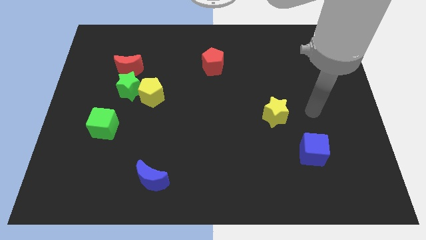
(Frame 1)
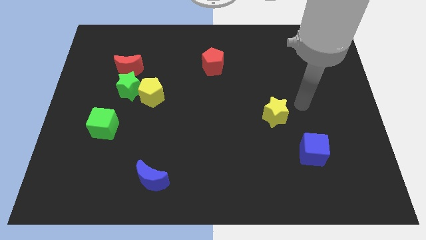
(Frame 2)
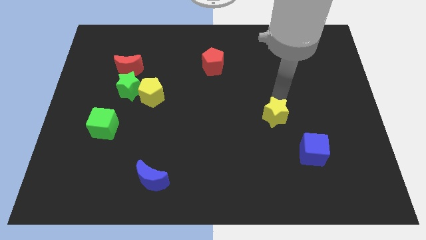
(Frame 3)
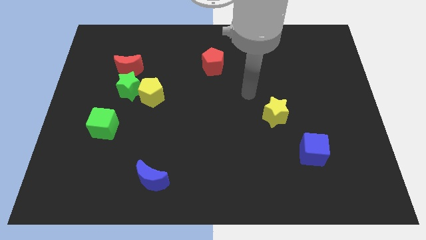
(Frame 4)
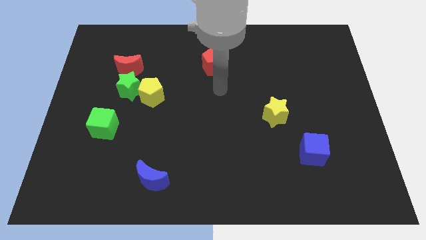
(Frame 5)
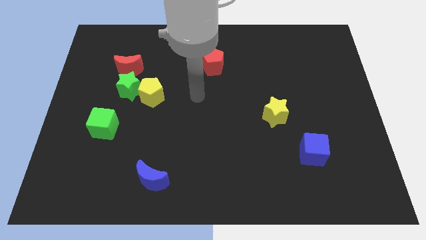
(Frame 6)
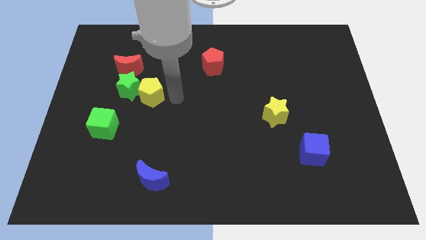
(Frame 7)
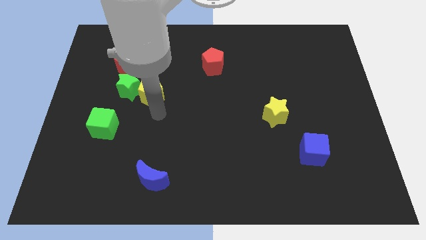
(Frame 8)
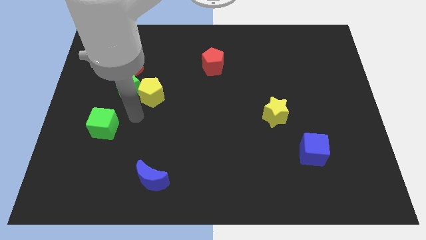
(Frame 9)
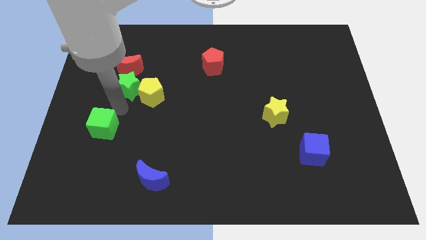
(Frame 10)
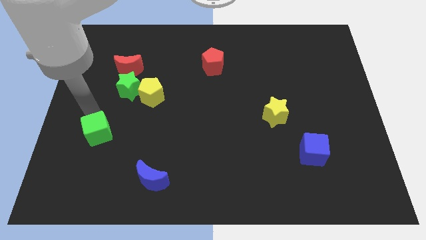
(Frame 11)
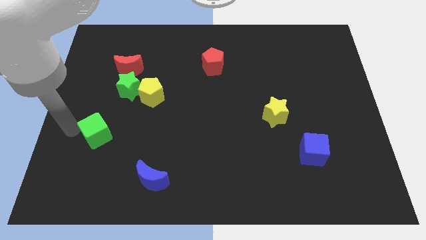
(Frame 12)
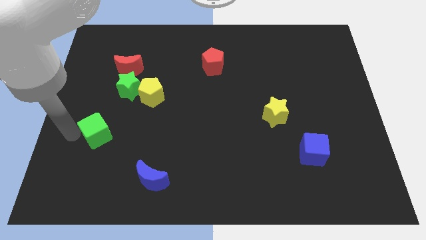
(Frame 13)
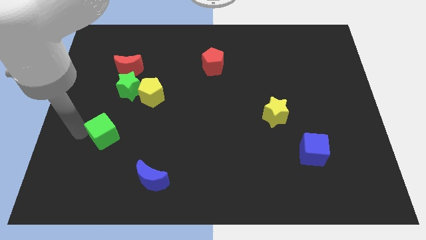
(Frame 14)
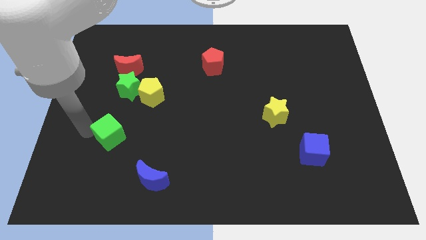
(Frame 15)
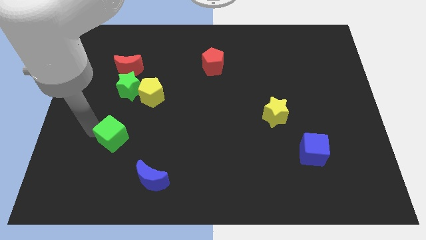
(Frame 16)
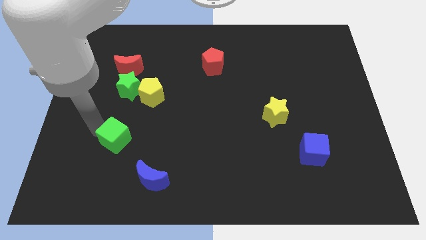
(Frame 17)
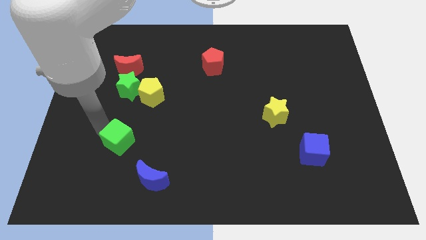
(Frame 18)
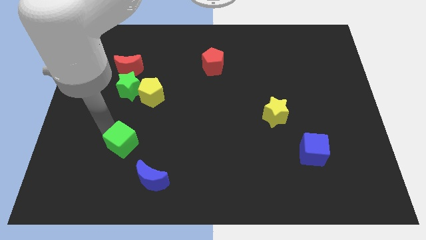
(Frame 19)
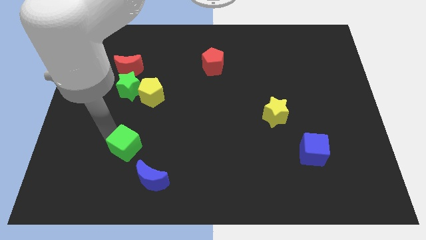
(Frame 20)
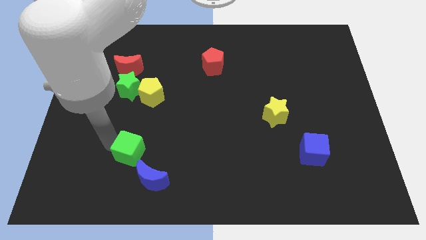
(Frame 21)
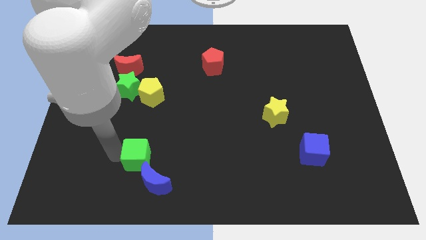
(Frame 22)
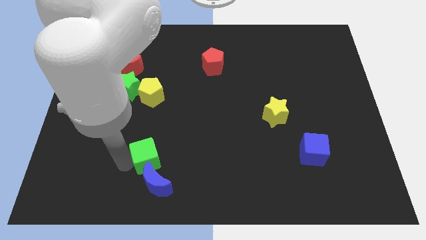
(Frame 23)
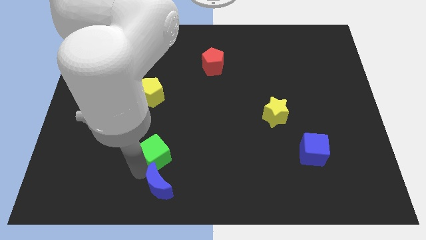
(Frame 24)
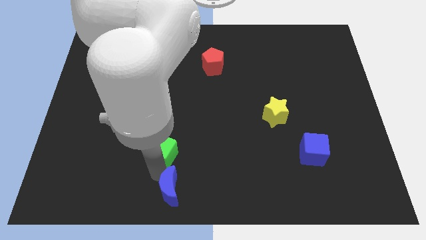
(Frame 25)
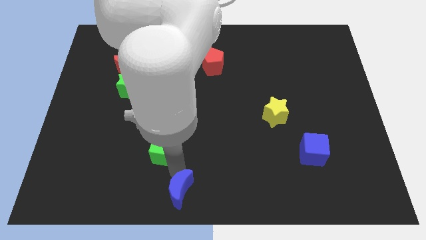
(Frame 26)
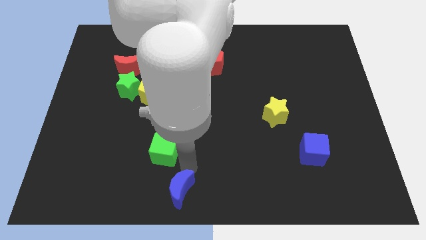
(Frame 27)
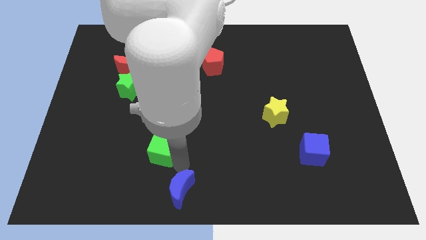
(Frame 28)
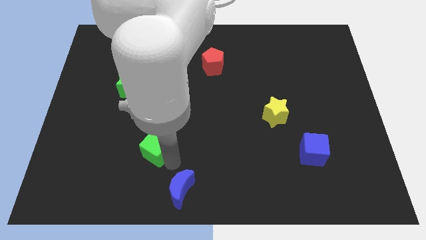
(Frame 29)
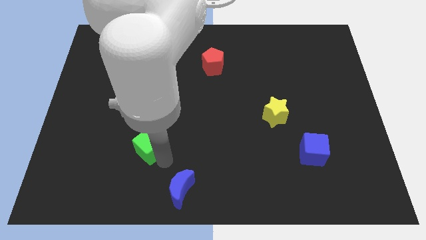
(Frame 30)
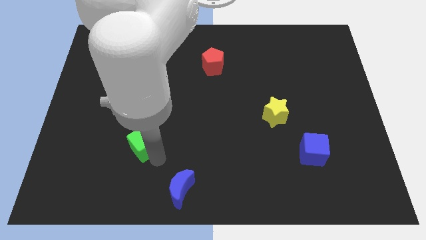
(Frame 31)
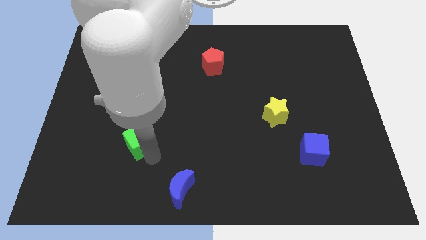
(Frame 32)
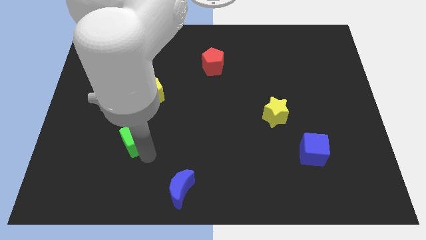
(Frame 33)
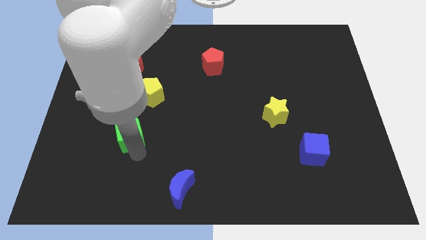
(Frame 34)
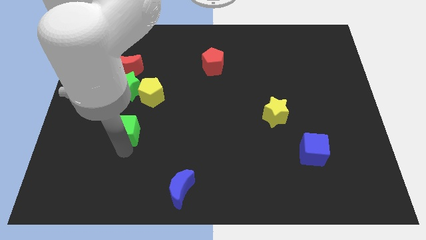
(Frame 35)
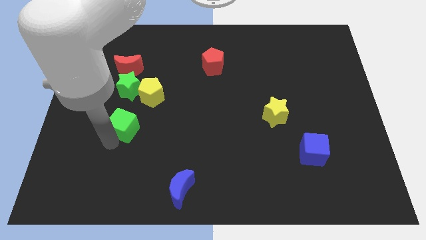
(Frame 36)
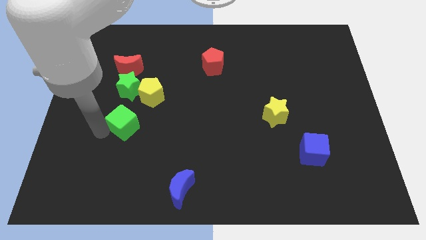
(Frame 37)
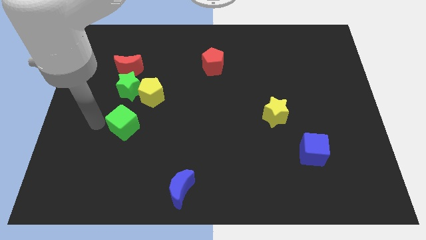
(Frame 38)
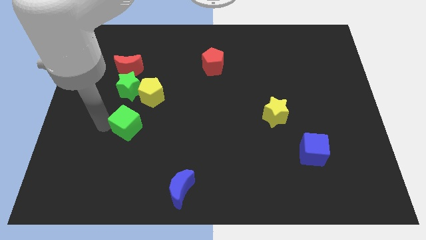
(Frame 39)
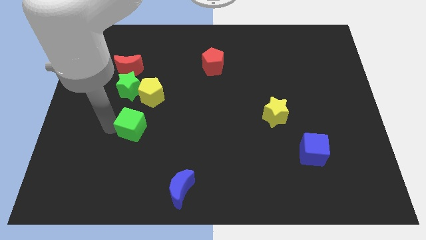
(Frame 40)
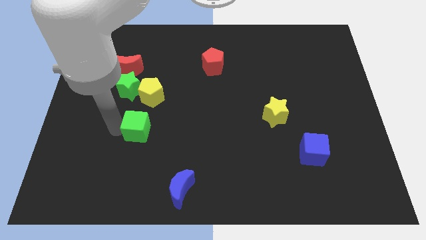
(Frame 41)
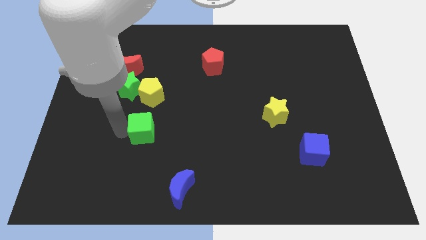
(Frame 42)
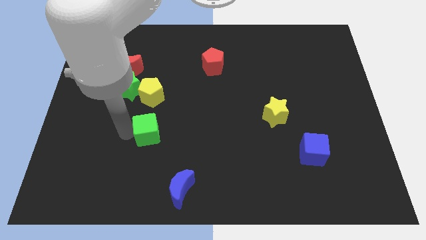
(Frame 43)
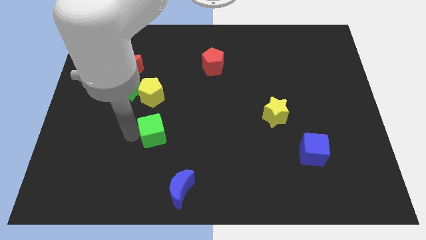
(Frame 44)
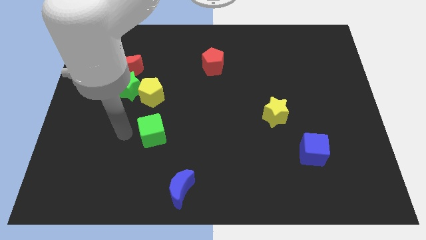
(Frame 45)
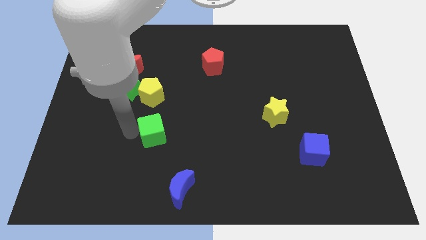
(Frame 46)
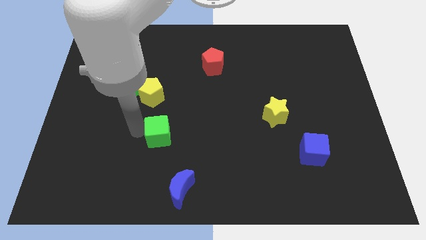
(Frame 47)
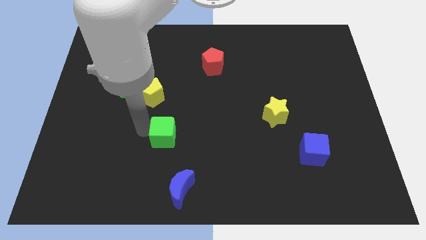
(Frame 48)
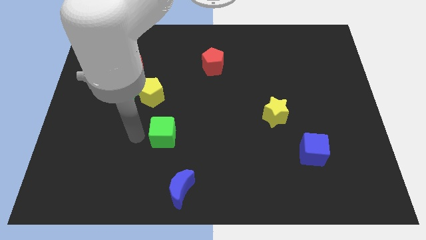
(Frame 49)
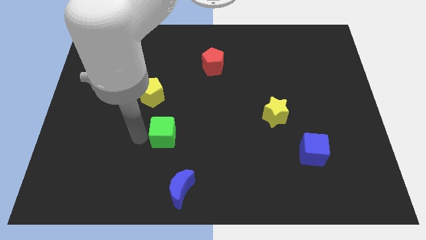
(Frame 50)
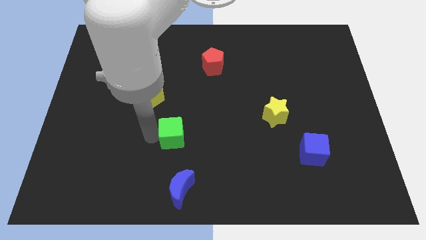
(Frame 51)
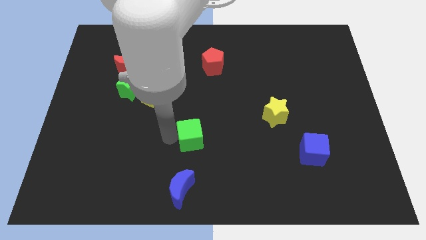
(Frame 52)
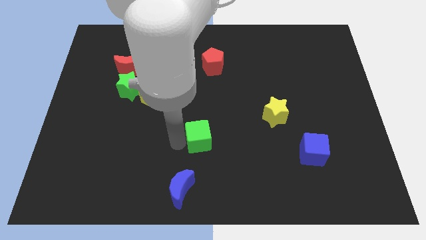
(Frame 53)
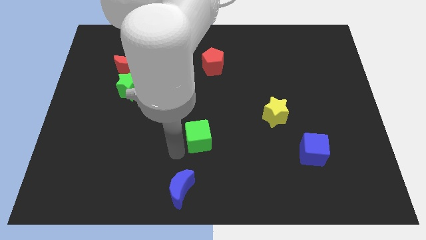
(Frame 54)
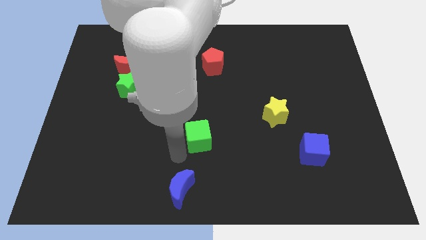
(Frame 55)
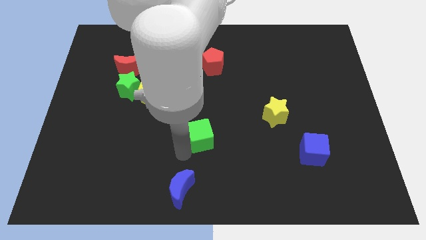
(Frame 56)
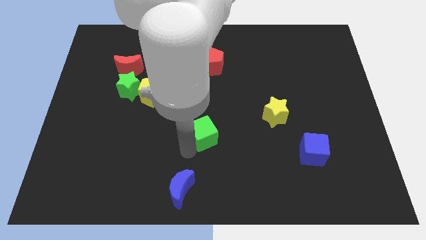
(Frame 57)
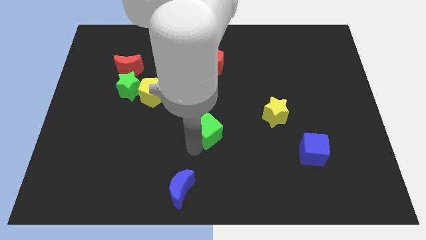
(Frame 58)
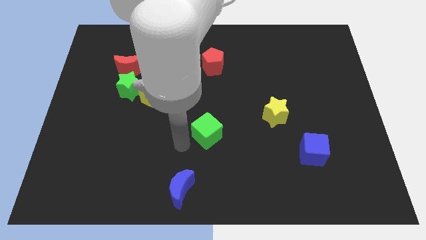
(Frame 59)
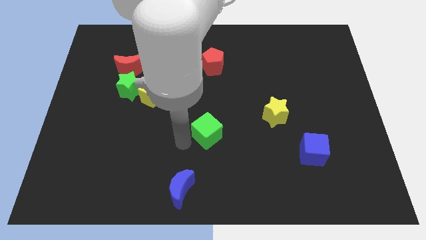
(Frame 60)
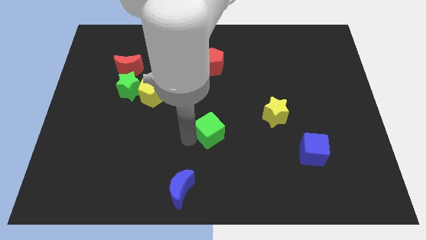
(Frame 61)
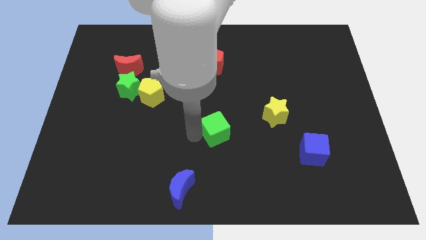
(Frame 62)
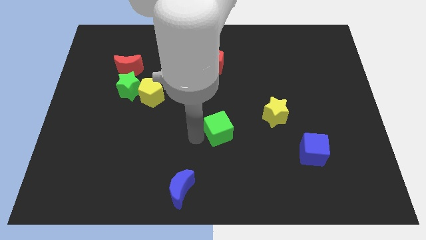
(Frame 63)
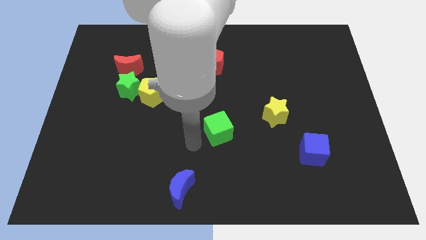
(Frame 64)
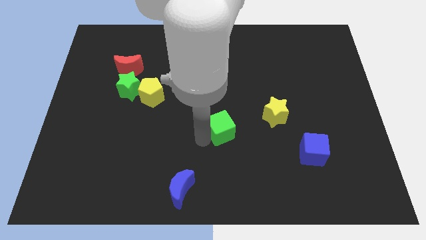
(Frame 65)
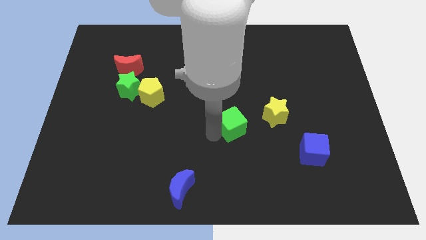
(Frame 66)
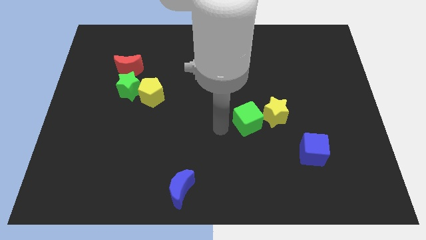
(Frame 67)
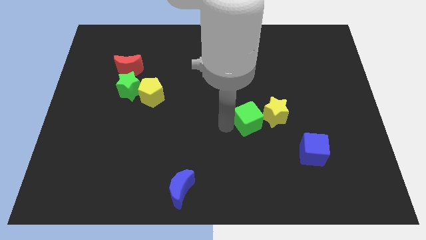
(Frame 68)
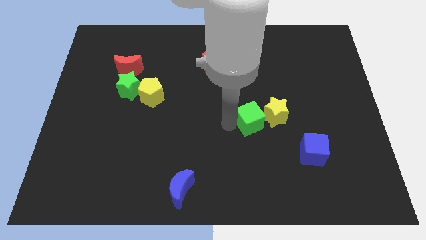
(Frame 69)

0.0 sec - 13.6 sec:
put the green cube to the yellow star

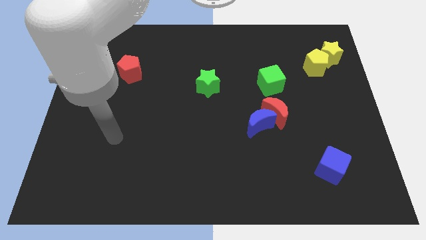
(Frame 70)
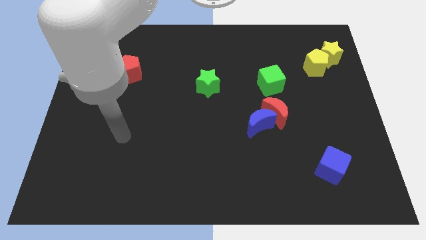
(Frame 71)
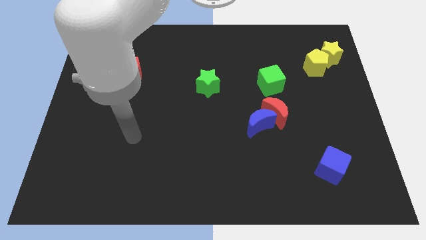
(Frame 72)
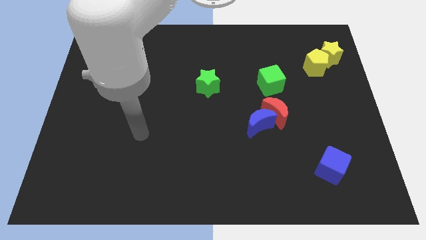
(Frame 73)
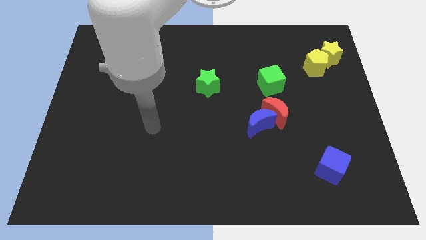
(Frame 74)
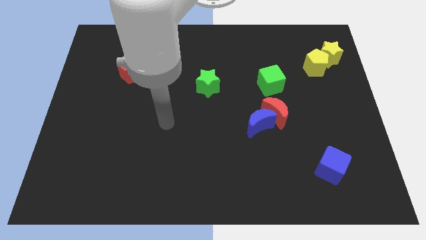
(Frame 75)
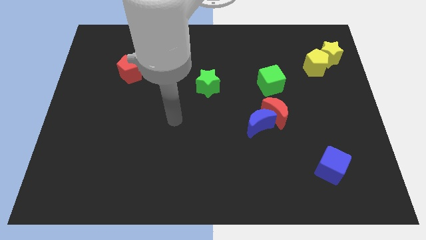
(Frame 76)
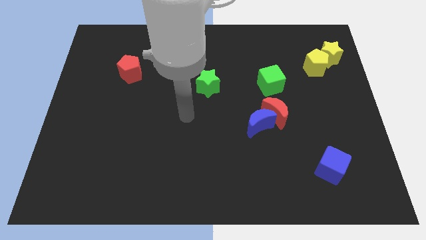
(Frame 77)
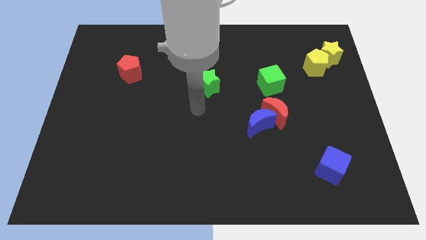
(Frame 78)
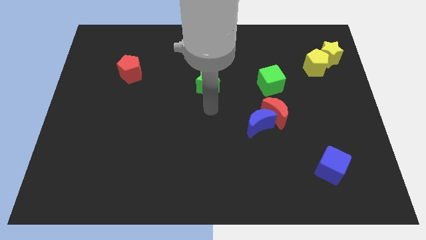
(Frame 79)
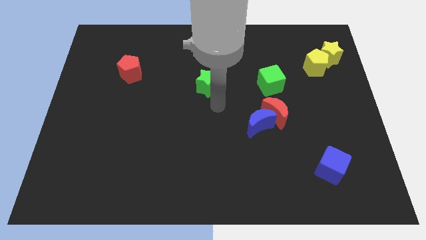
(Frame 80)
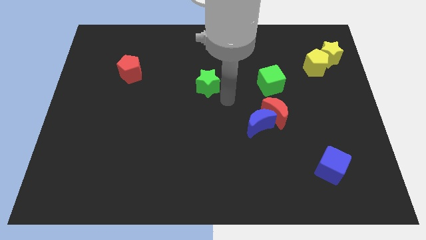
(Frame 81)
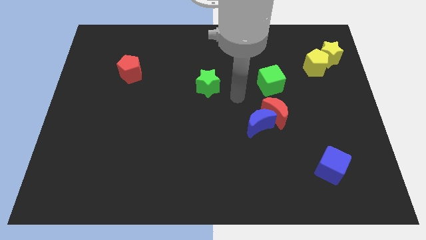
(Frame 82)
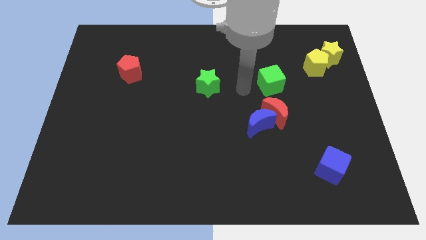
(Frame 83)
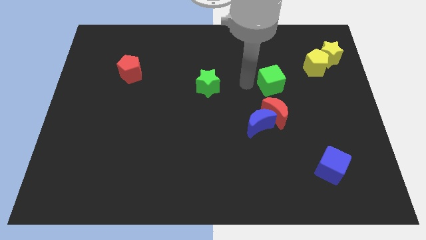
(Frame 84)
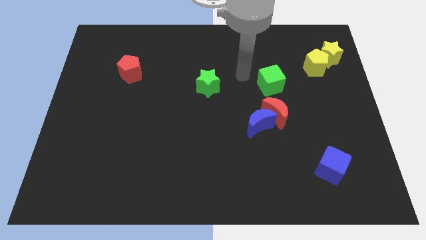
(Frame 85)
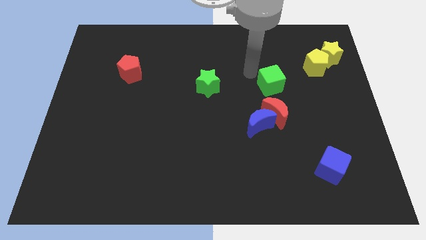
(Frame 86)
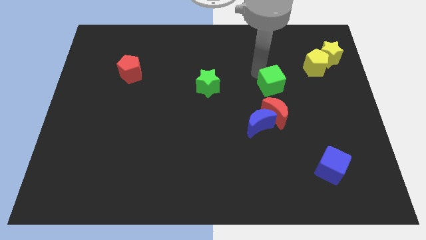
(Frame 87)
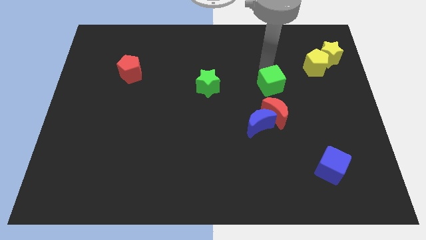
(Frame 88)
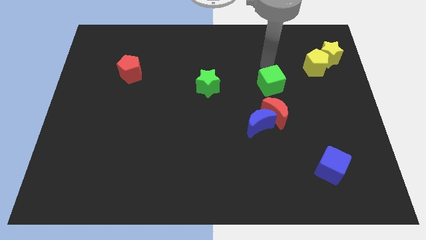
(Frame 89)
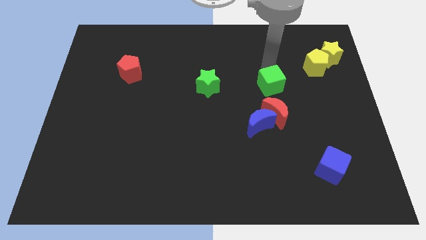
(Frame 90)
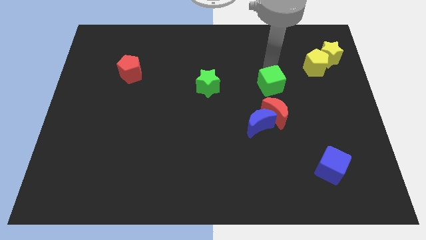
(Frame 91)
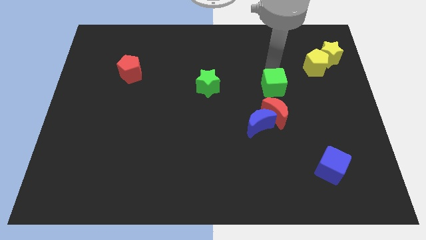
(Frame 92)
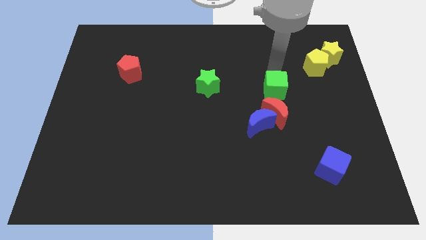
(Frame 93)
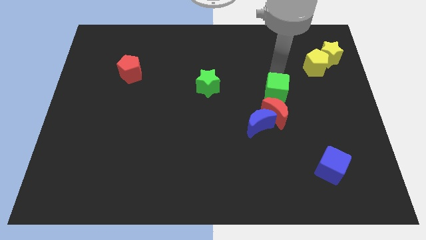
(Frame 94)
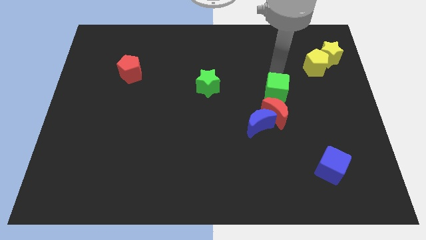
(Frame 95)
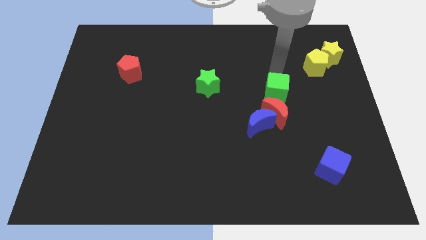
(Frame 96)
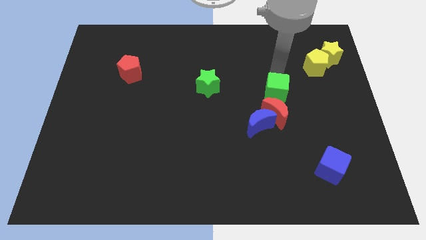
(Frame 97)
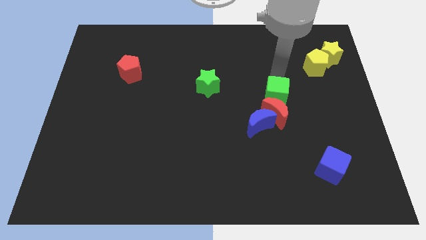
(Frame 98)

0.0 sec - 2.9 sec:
slide the green cube towards the red moon
